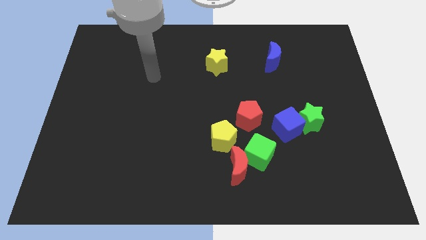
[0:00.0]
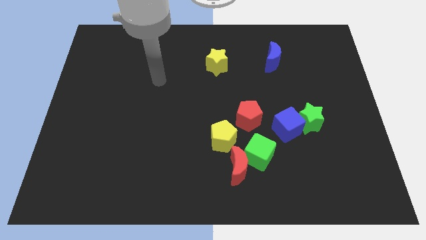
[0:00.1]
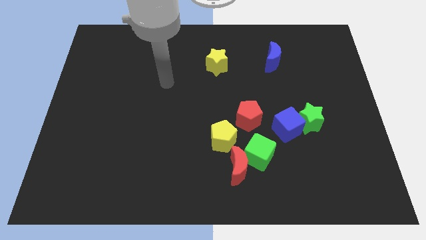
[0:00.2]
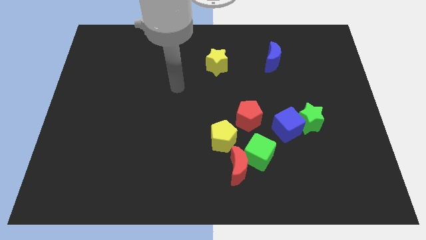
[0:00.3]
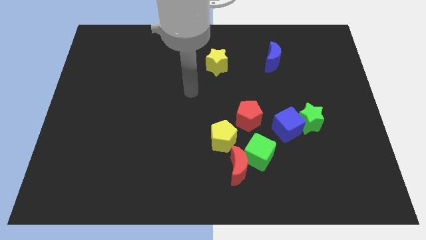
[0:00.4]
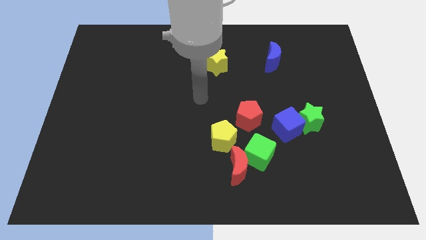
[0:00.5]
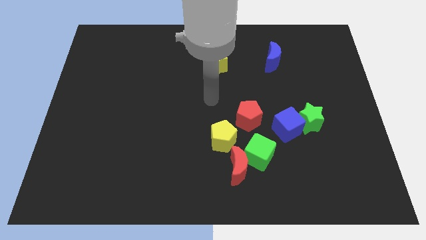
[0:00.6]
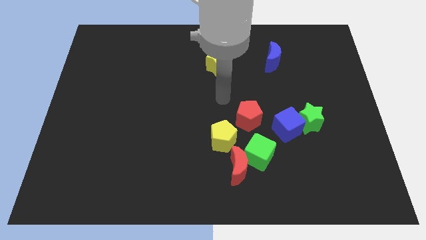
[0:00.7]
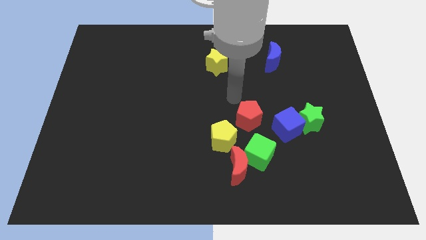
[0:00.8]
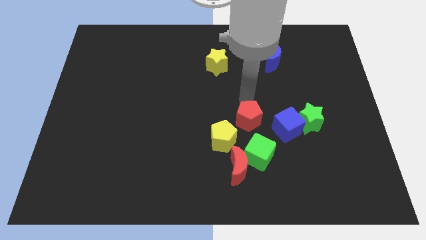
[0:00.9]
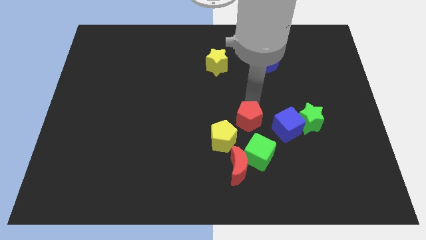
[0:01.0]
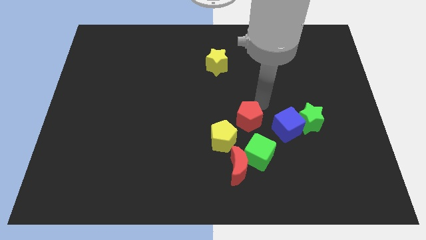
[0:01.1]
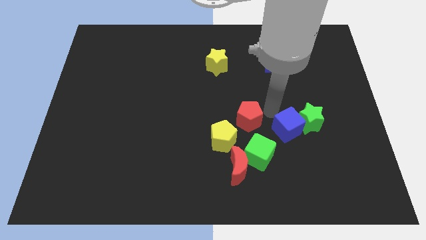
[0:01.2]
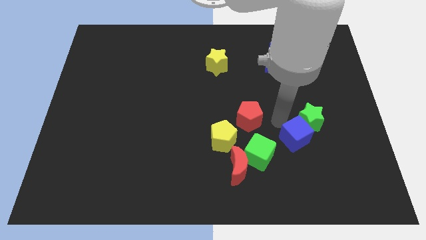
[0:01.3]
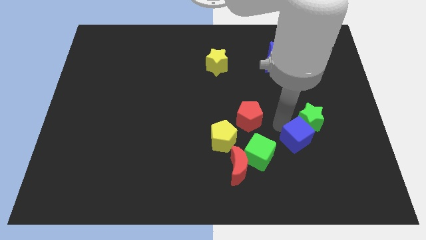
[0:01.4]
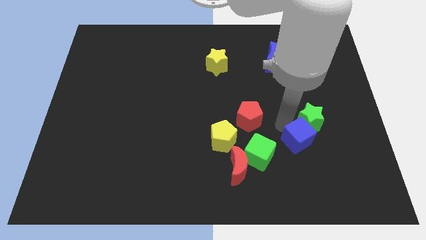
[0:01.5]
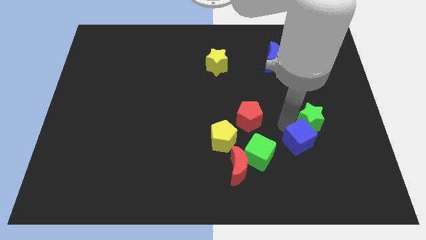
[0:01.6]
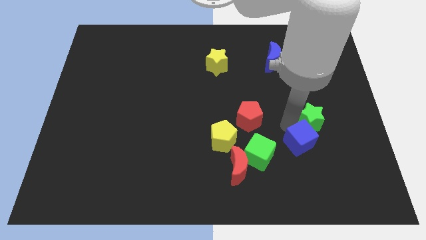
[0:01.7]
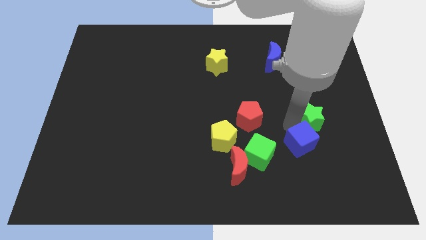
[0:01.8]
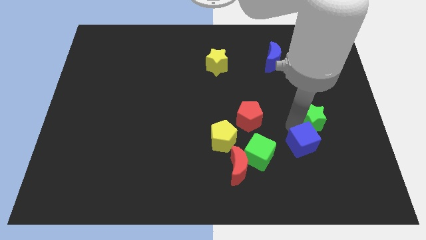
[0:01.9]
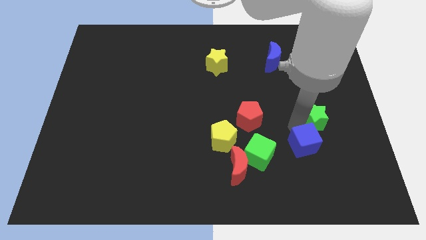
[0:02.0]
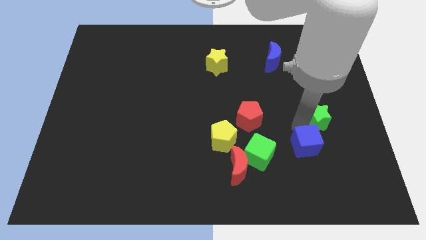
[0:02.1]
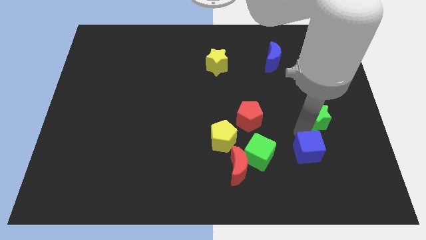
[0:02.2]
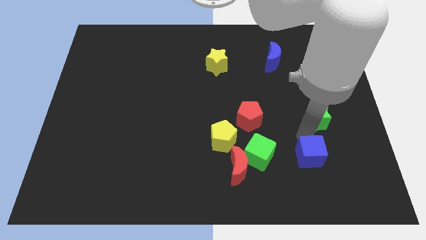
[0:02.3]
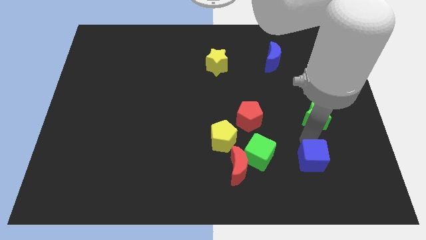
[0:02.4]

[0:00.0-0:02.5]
move the green star away from the blue cube

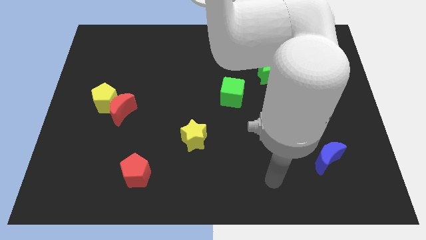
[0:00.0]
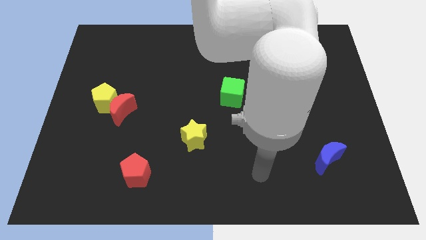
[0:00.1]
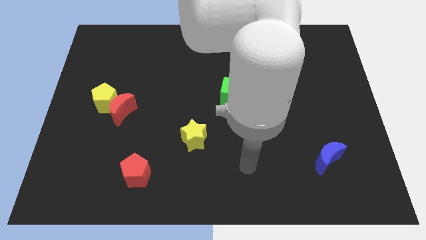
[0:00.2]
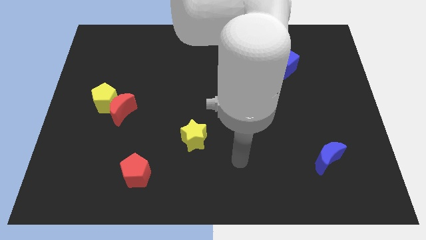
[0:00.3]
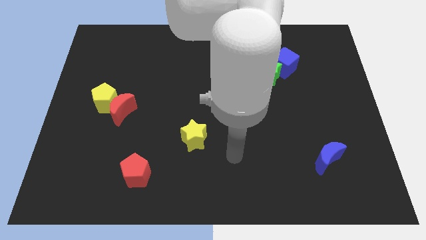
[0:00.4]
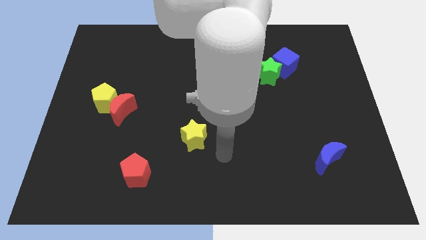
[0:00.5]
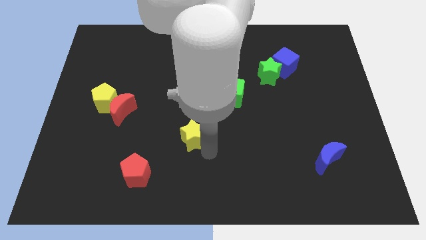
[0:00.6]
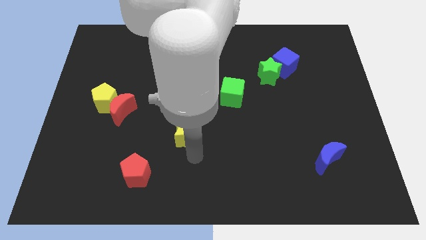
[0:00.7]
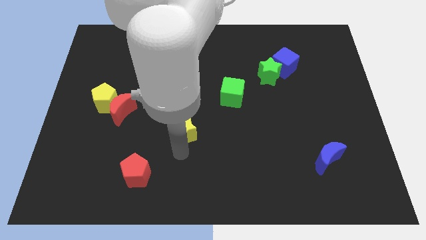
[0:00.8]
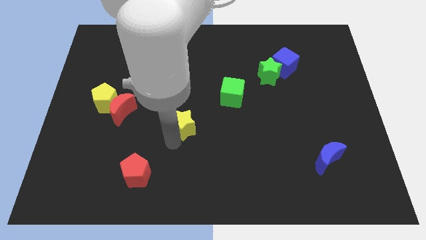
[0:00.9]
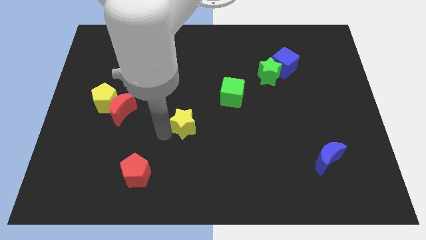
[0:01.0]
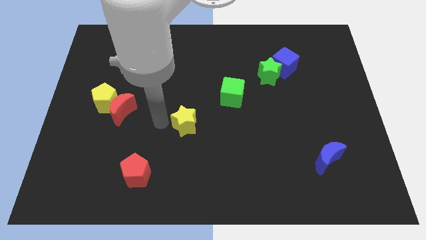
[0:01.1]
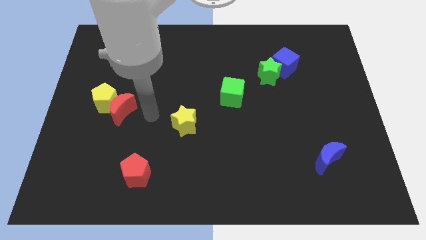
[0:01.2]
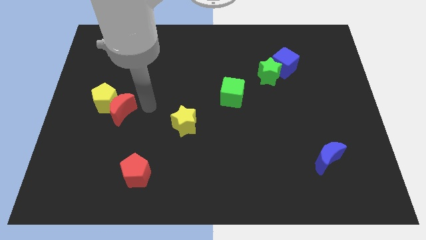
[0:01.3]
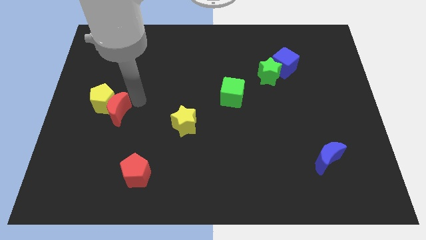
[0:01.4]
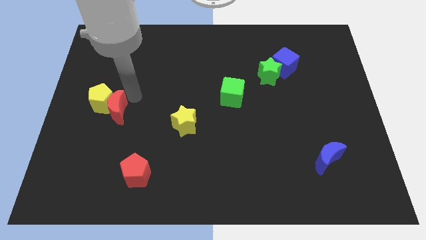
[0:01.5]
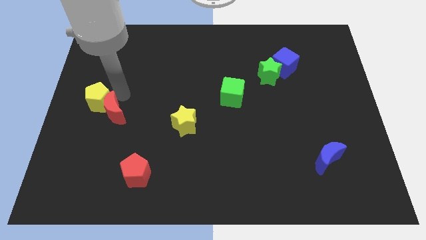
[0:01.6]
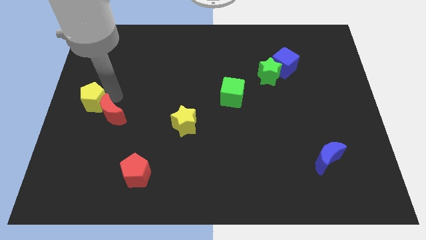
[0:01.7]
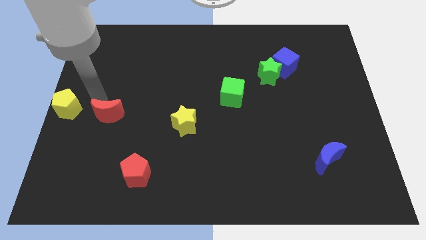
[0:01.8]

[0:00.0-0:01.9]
separate the red moon from the yellow pentagon

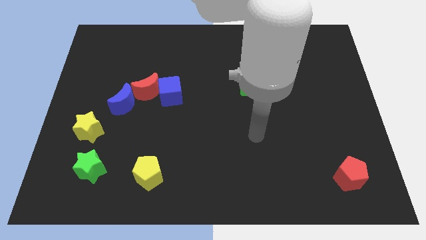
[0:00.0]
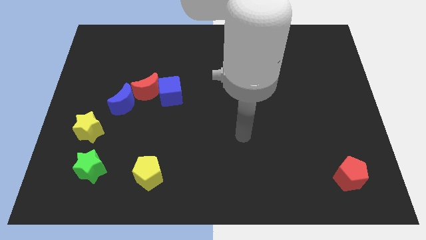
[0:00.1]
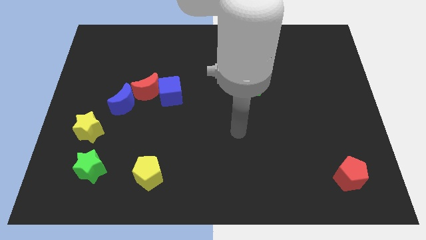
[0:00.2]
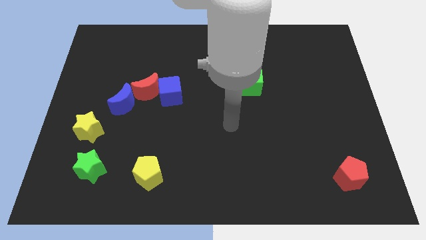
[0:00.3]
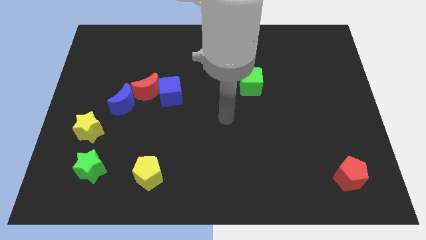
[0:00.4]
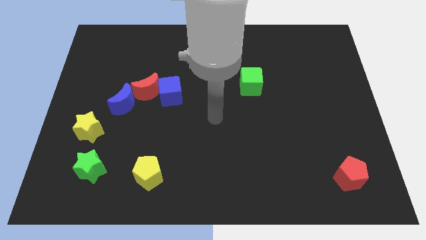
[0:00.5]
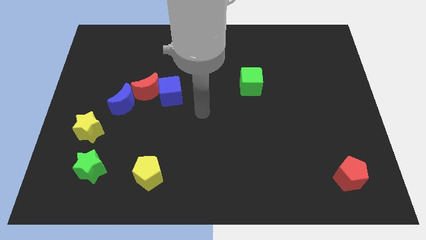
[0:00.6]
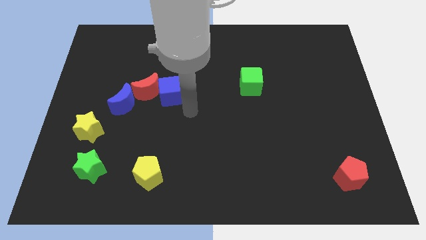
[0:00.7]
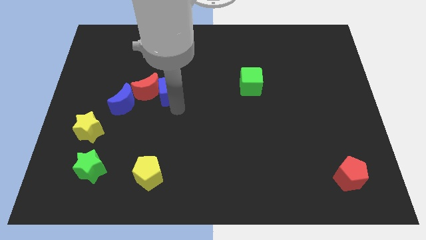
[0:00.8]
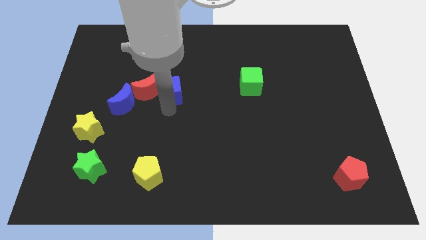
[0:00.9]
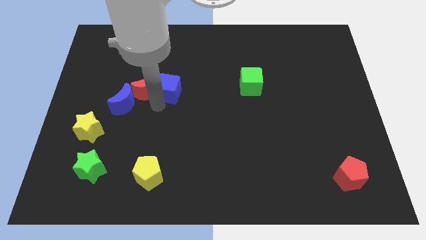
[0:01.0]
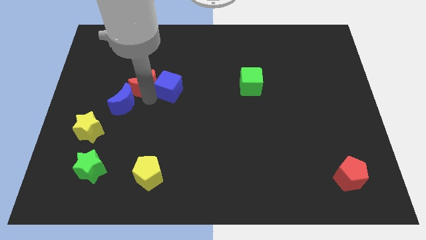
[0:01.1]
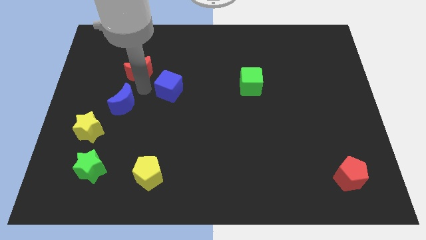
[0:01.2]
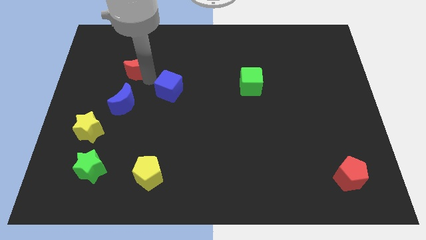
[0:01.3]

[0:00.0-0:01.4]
pull the blue cube apart from the red moon

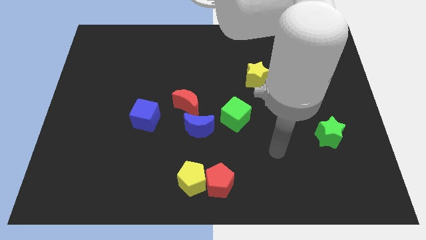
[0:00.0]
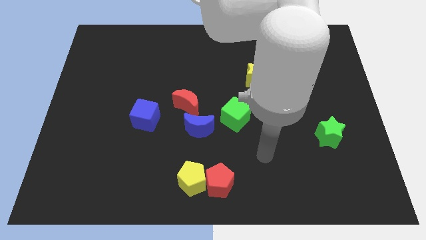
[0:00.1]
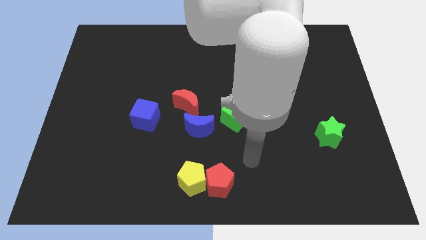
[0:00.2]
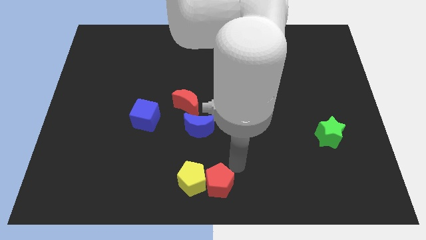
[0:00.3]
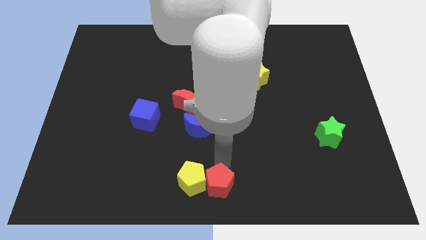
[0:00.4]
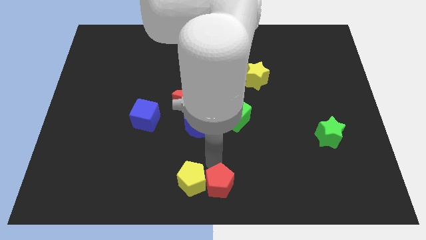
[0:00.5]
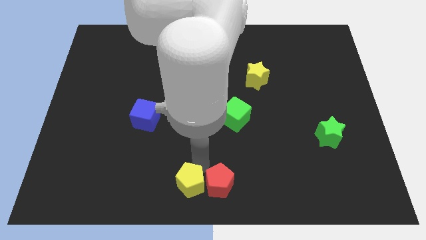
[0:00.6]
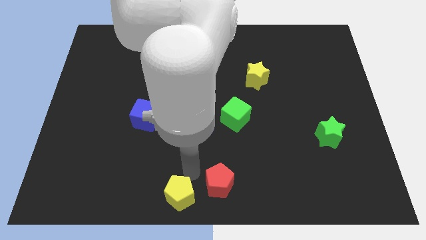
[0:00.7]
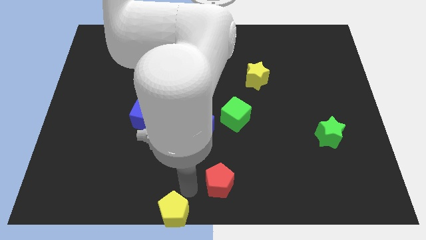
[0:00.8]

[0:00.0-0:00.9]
separate the red pentagon from the yellow pentagon

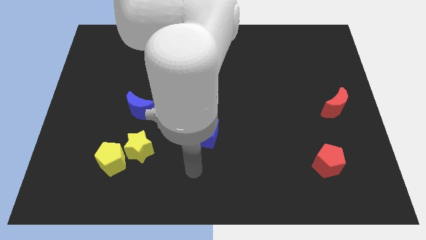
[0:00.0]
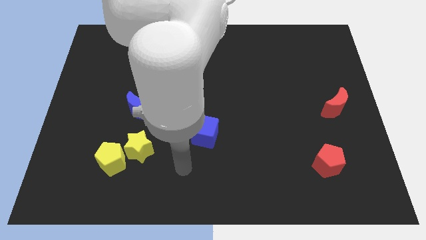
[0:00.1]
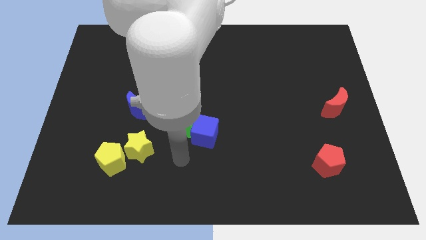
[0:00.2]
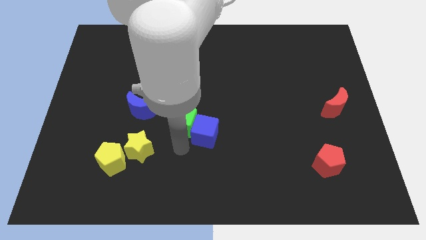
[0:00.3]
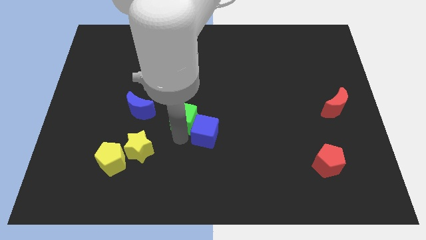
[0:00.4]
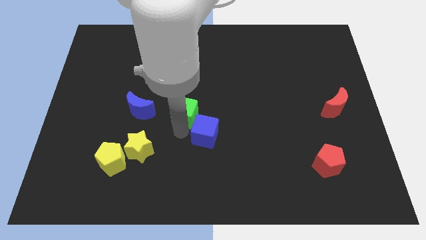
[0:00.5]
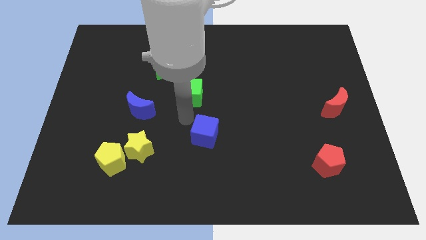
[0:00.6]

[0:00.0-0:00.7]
move the blue cube away from the green cube

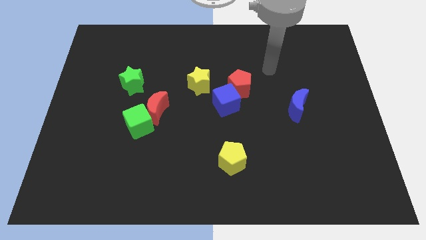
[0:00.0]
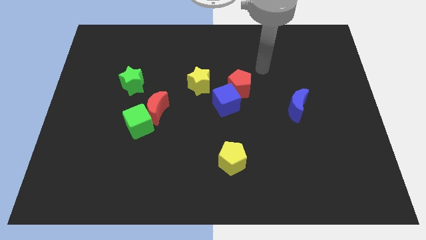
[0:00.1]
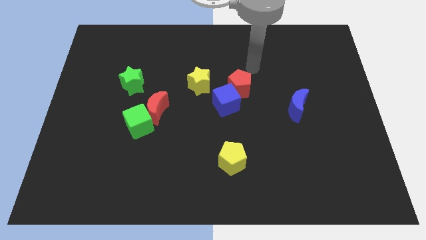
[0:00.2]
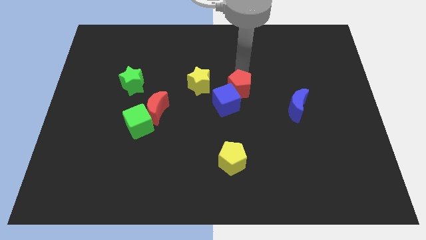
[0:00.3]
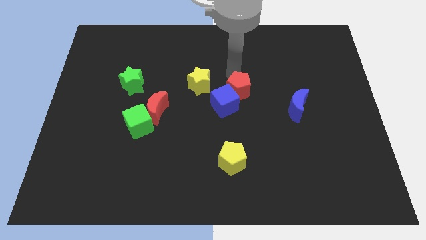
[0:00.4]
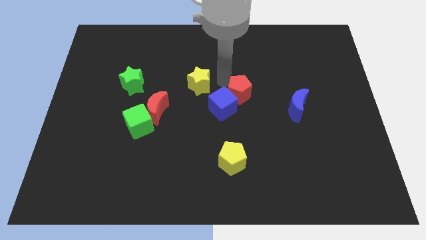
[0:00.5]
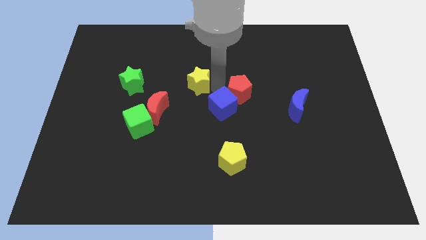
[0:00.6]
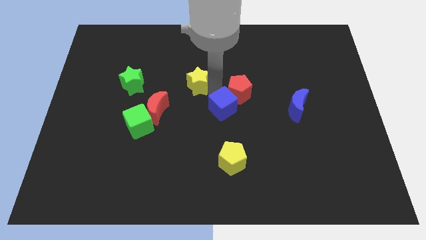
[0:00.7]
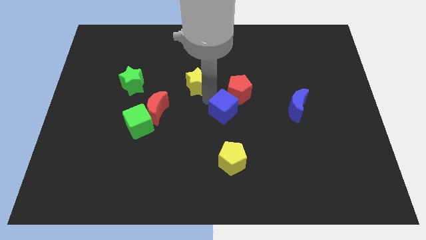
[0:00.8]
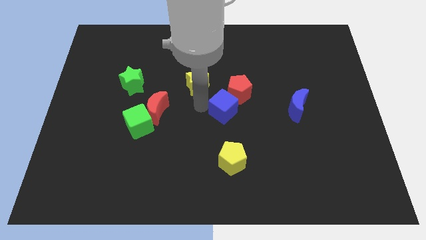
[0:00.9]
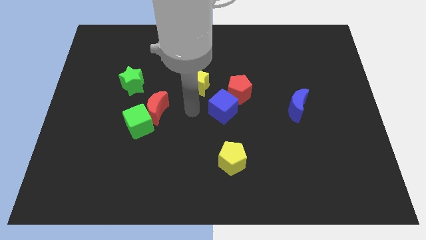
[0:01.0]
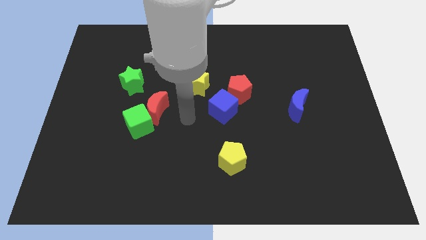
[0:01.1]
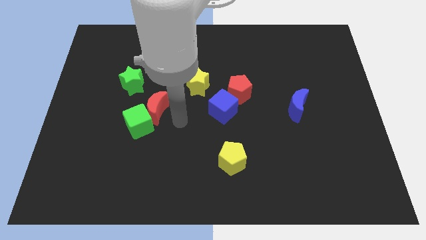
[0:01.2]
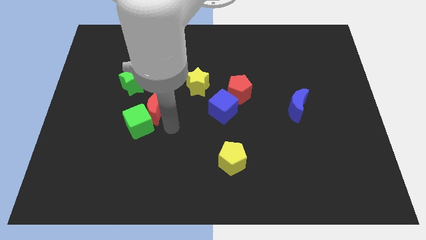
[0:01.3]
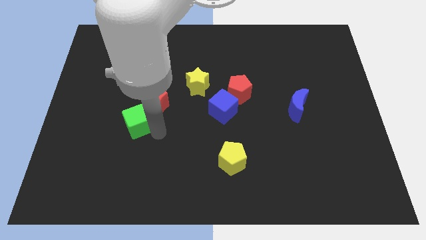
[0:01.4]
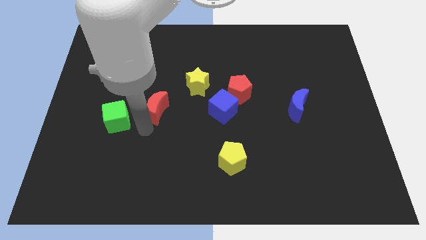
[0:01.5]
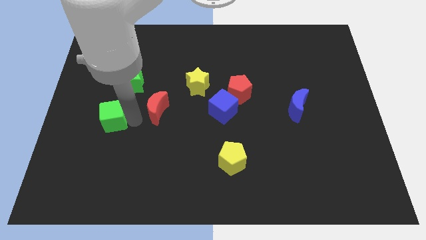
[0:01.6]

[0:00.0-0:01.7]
pull the red moon apart from the green cube

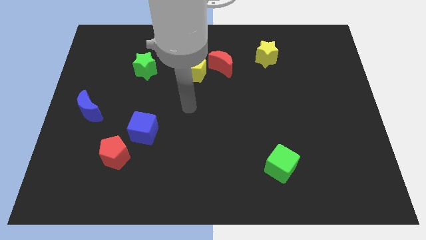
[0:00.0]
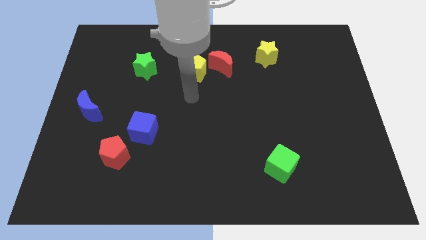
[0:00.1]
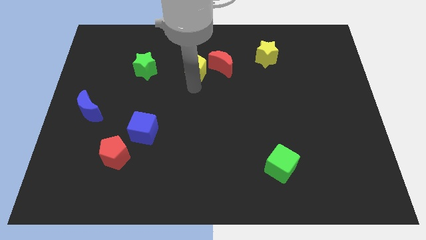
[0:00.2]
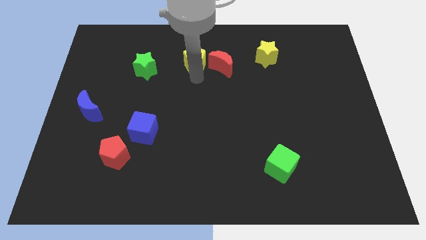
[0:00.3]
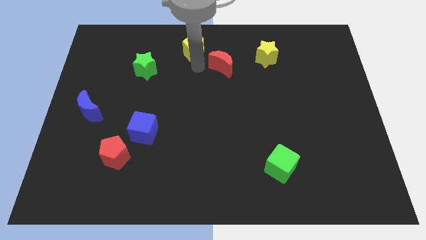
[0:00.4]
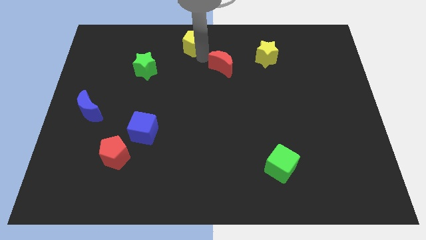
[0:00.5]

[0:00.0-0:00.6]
pull the red moon apart from the yellow pentagon
